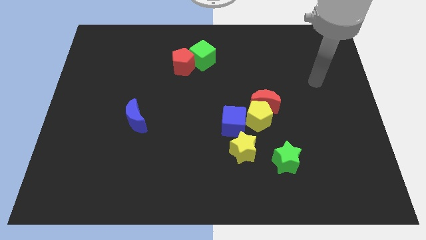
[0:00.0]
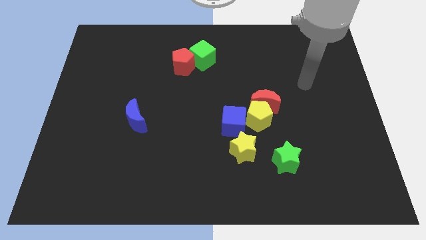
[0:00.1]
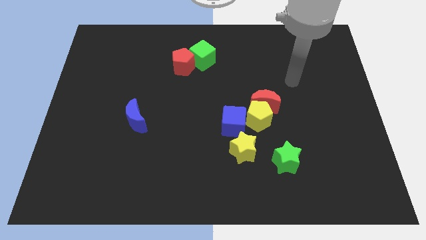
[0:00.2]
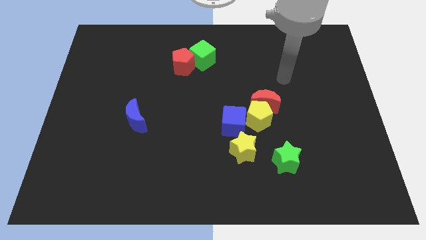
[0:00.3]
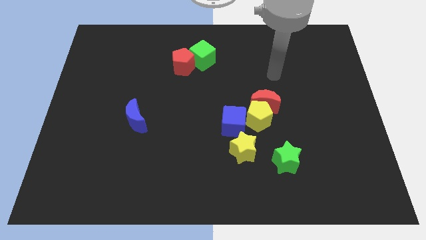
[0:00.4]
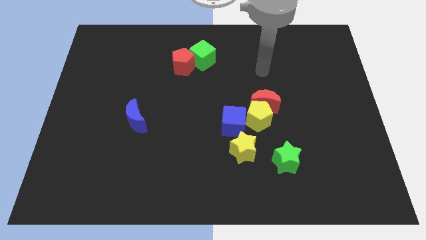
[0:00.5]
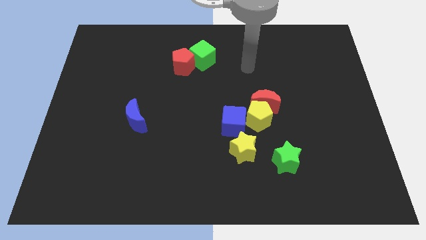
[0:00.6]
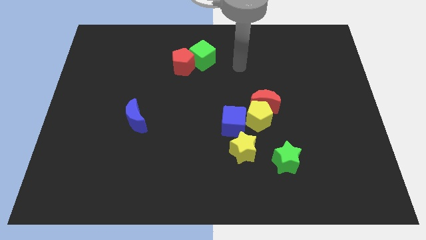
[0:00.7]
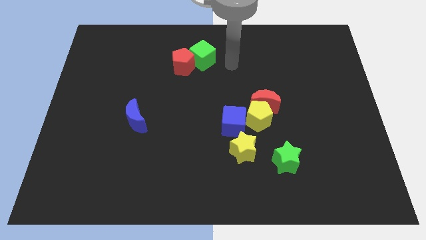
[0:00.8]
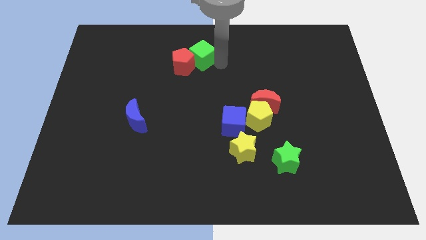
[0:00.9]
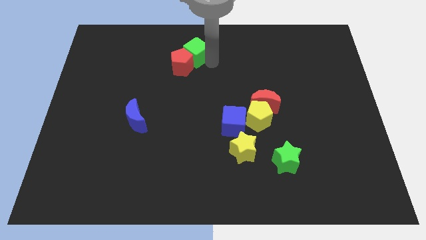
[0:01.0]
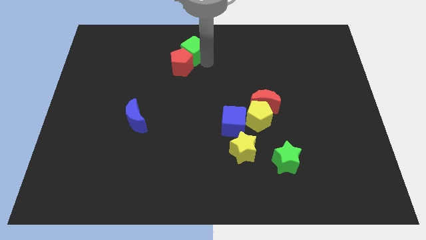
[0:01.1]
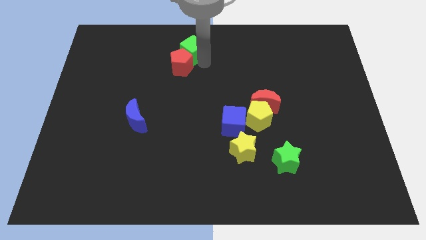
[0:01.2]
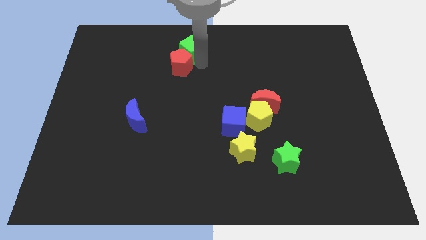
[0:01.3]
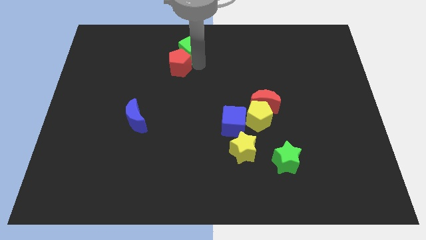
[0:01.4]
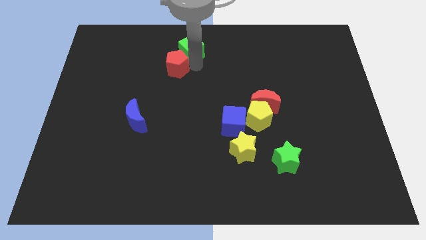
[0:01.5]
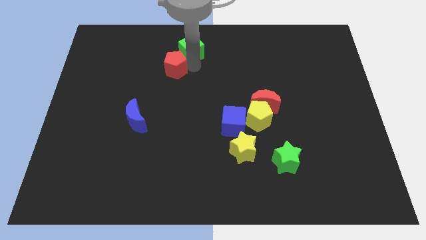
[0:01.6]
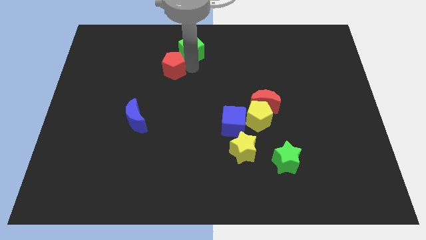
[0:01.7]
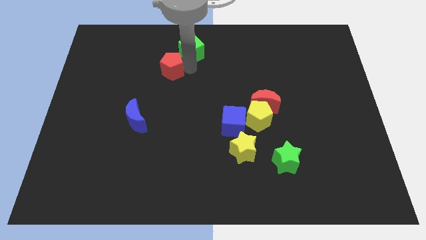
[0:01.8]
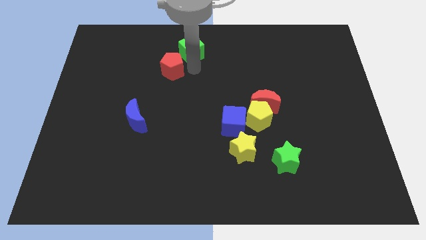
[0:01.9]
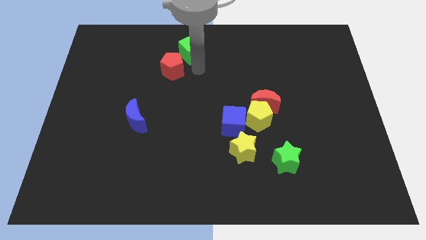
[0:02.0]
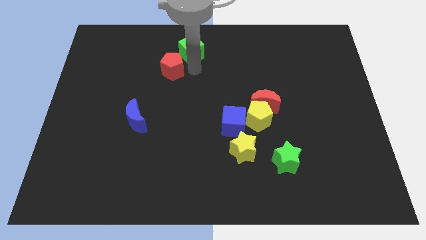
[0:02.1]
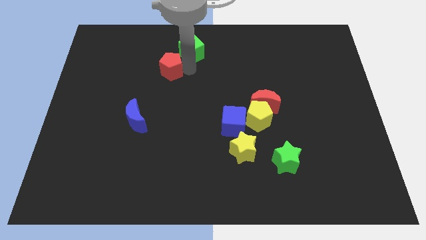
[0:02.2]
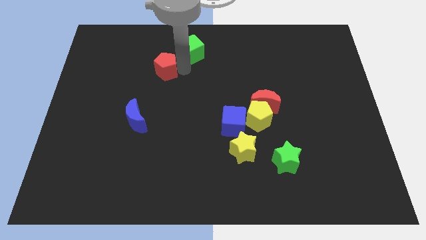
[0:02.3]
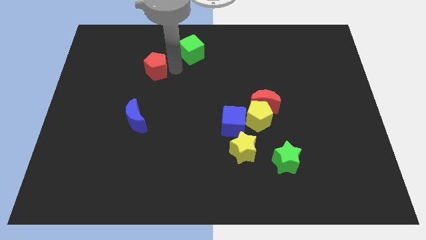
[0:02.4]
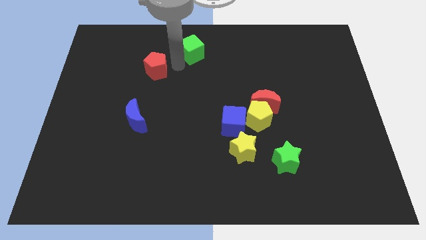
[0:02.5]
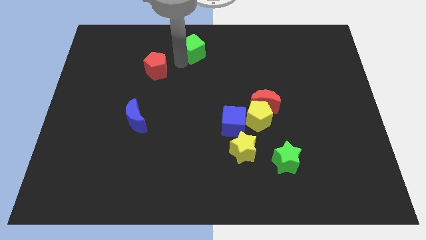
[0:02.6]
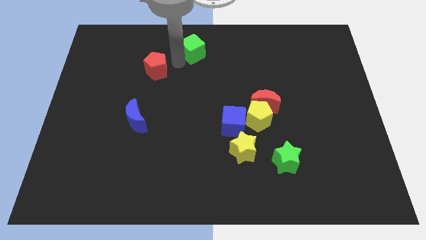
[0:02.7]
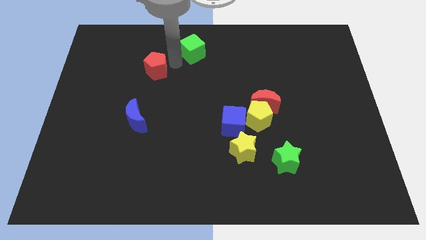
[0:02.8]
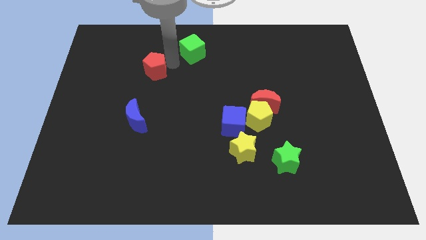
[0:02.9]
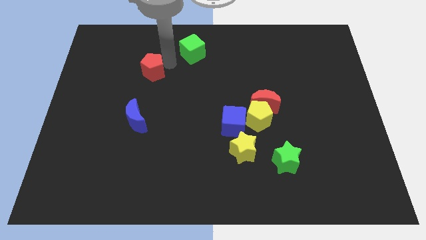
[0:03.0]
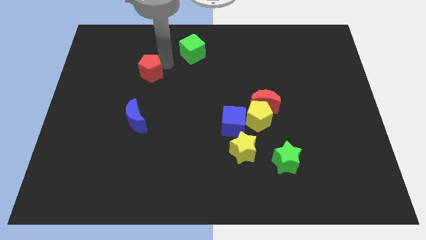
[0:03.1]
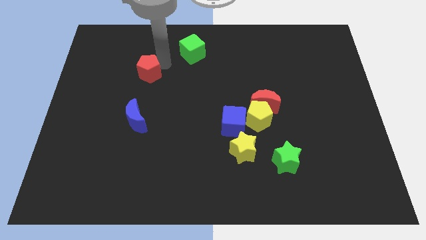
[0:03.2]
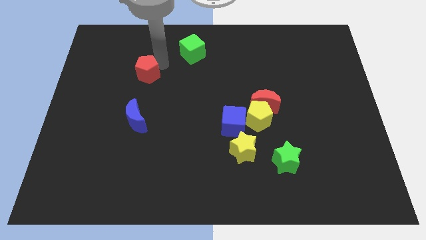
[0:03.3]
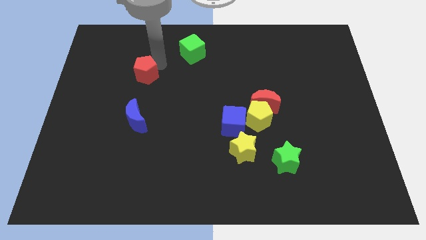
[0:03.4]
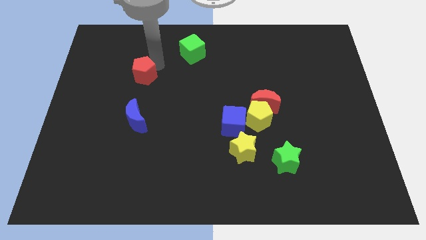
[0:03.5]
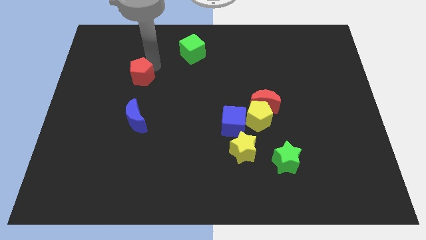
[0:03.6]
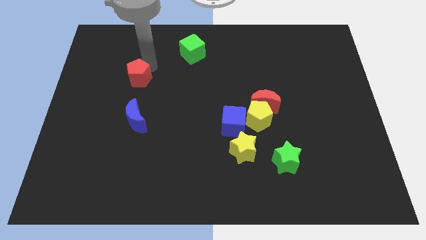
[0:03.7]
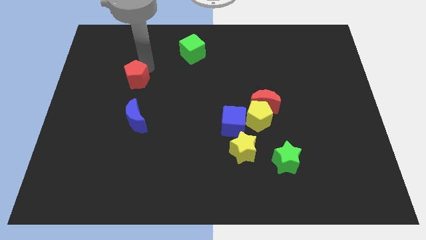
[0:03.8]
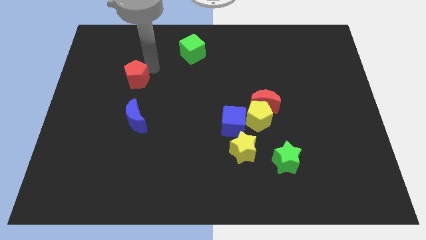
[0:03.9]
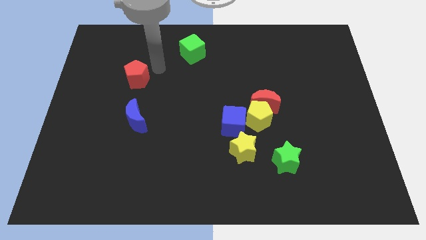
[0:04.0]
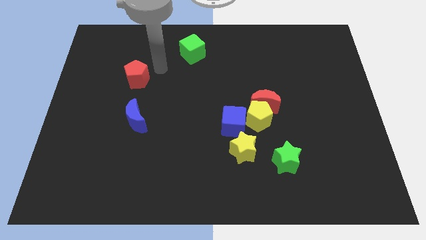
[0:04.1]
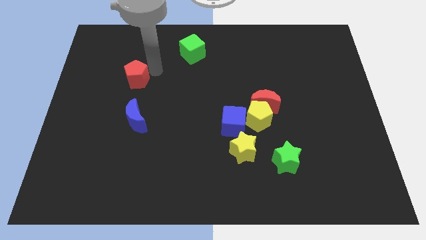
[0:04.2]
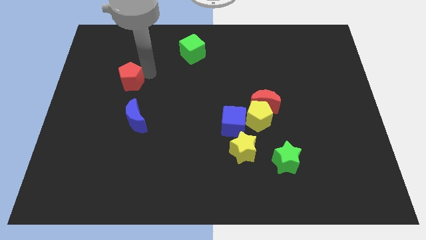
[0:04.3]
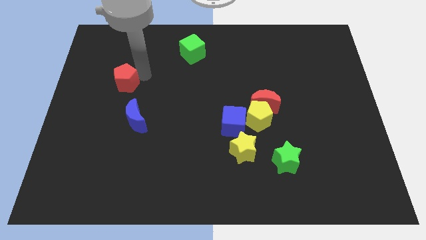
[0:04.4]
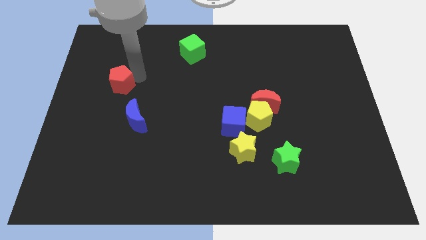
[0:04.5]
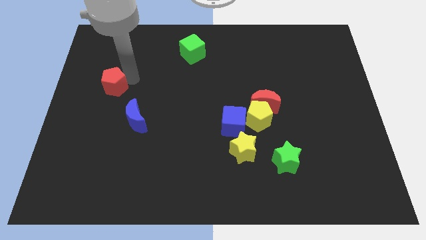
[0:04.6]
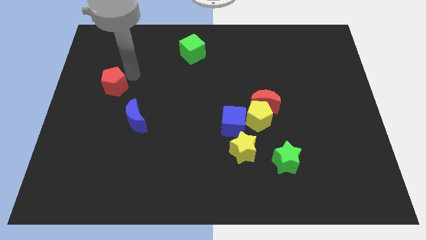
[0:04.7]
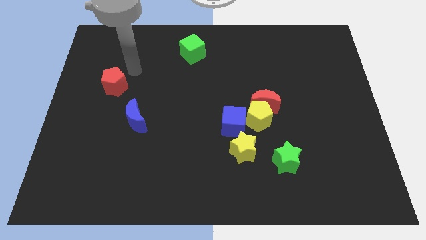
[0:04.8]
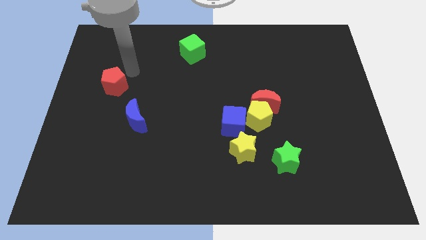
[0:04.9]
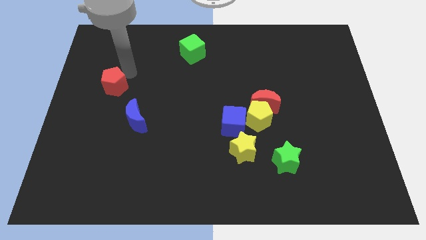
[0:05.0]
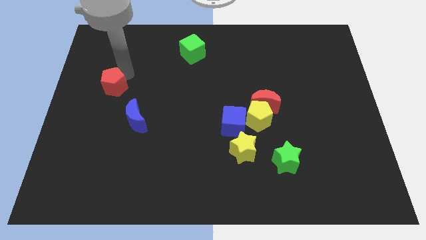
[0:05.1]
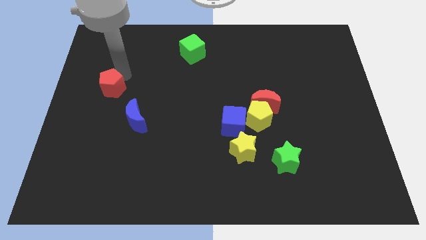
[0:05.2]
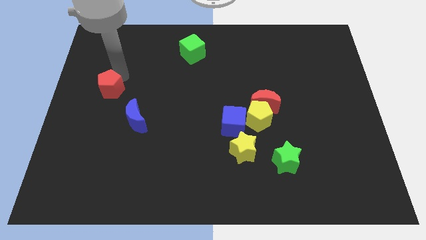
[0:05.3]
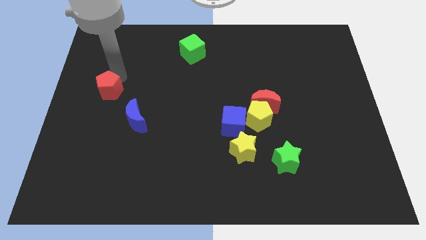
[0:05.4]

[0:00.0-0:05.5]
put the red pentagon to the left side of the board

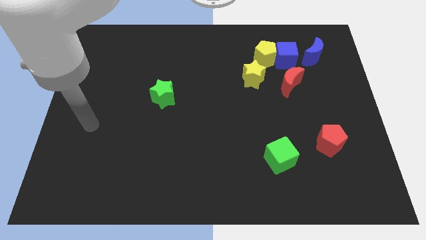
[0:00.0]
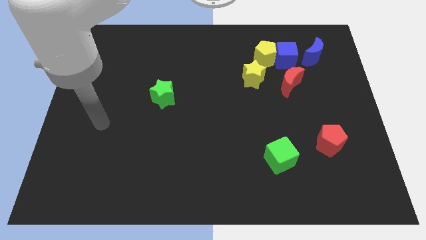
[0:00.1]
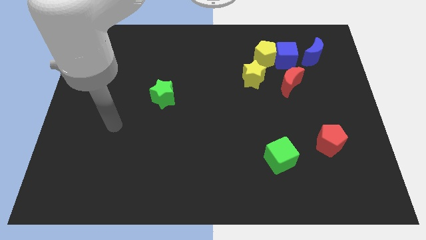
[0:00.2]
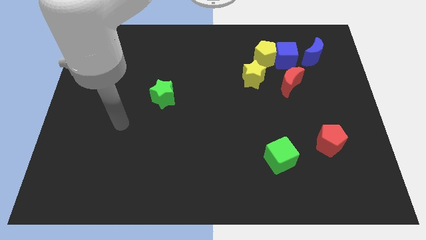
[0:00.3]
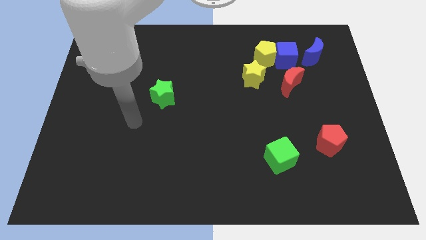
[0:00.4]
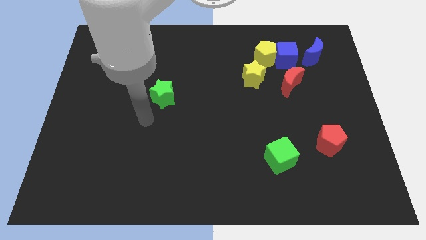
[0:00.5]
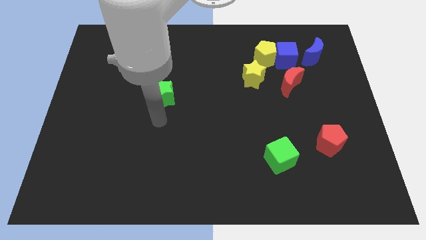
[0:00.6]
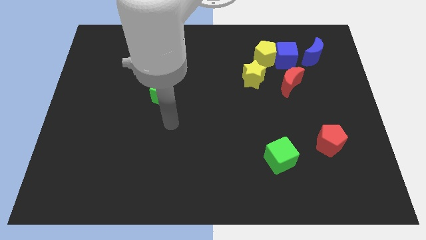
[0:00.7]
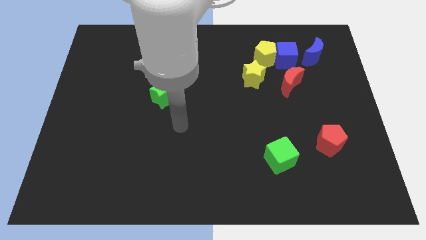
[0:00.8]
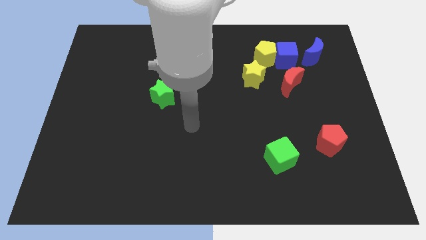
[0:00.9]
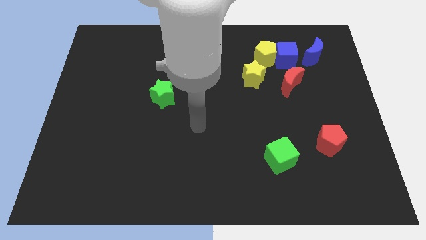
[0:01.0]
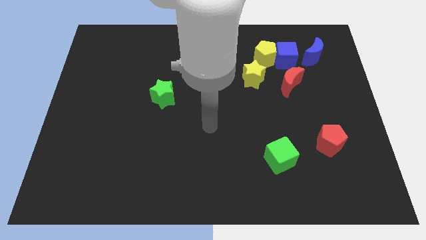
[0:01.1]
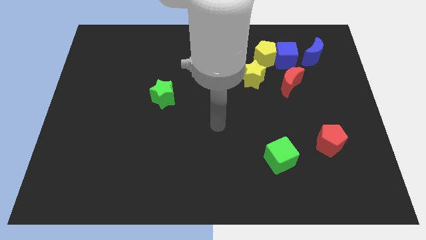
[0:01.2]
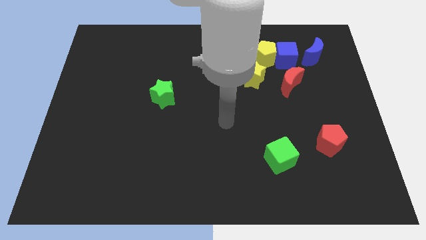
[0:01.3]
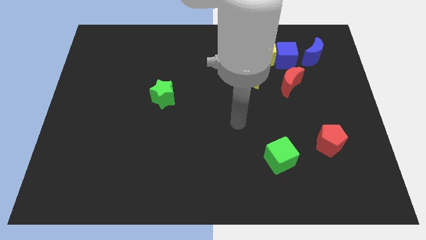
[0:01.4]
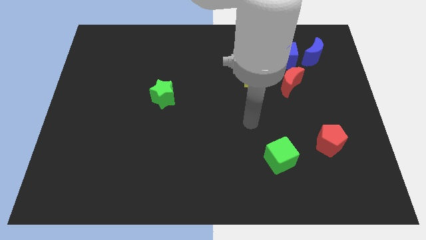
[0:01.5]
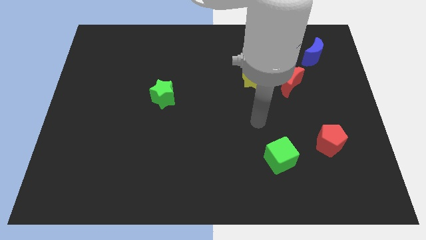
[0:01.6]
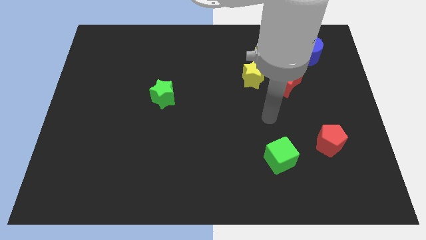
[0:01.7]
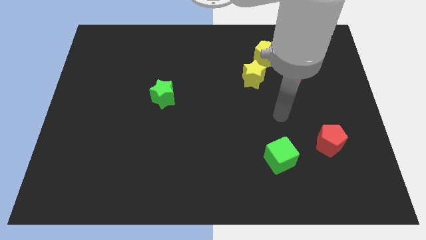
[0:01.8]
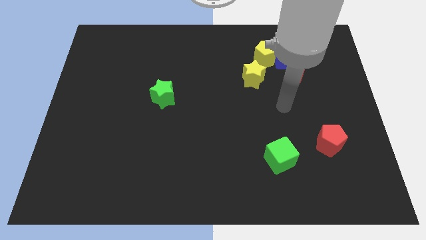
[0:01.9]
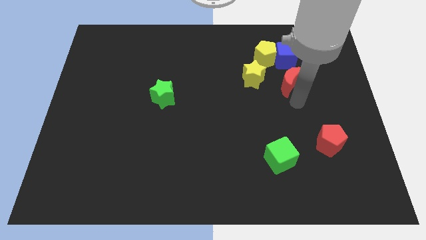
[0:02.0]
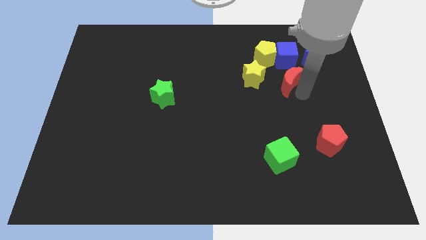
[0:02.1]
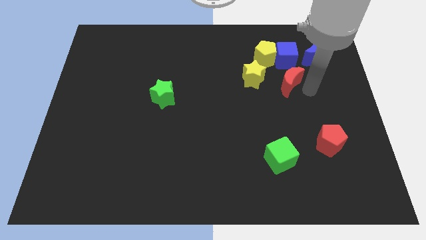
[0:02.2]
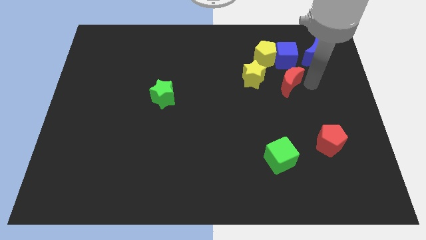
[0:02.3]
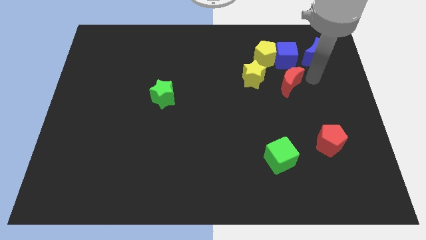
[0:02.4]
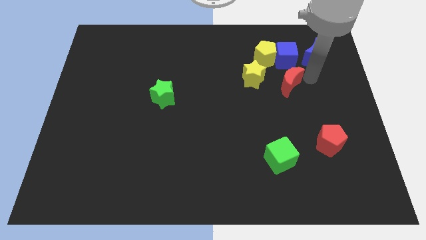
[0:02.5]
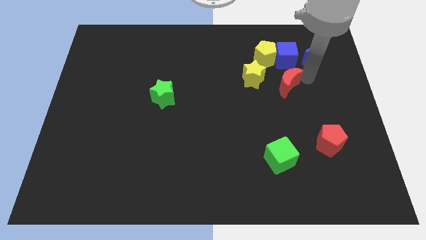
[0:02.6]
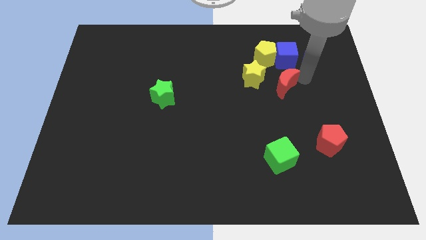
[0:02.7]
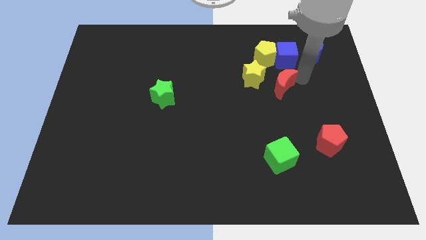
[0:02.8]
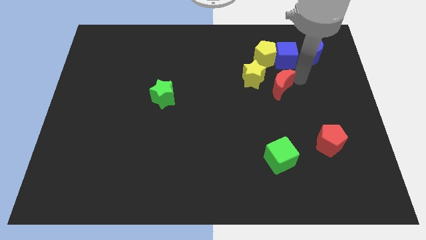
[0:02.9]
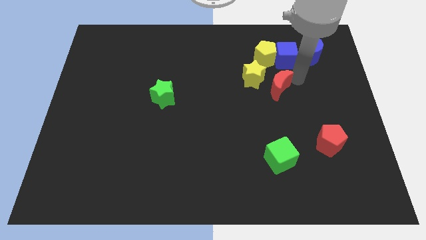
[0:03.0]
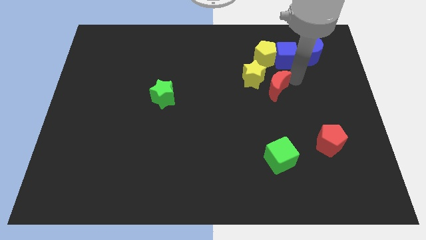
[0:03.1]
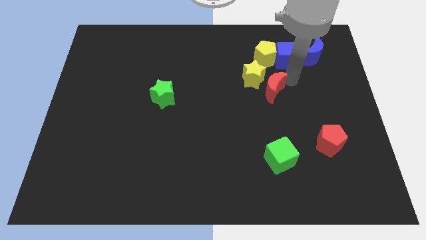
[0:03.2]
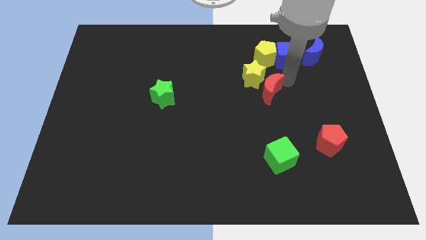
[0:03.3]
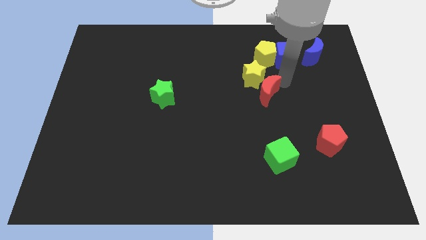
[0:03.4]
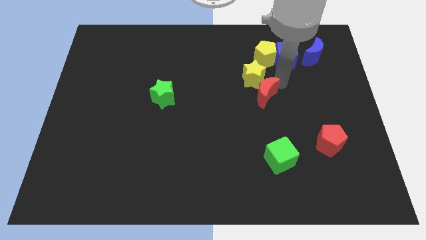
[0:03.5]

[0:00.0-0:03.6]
slide the red moon to the center
